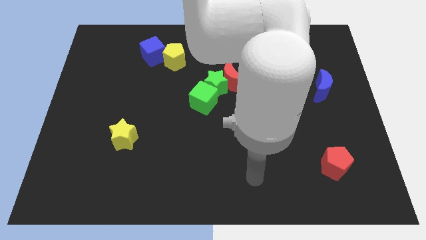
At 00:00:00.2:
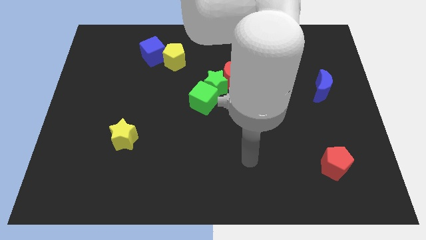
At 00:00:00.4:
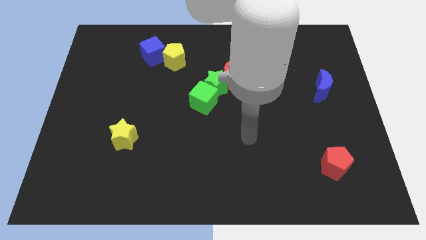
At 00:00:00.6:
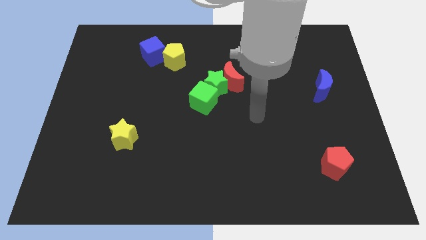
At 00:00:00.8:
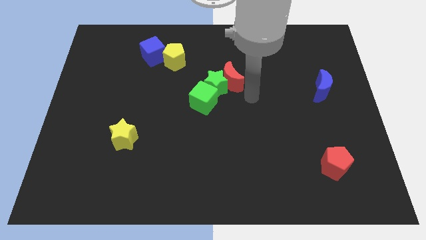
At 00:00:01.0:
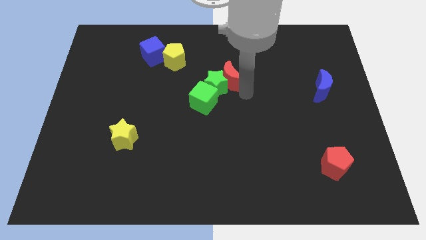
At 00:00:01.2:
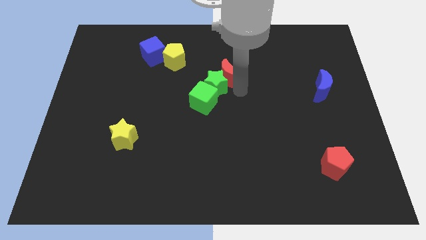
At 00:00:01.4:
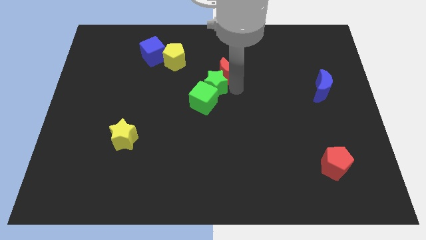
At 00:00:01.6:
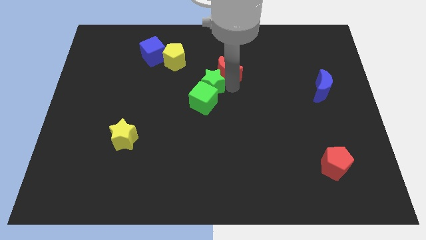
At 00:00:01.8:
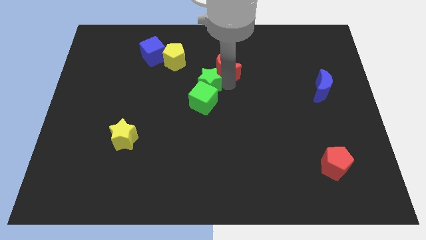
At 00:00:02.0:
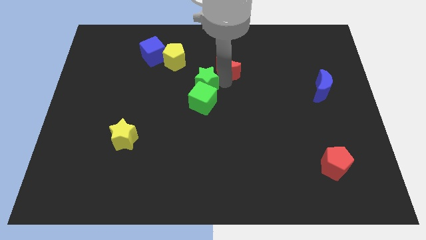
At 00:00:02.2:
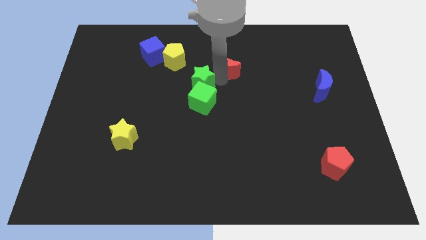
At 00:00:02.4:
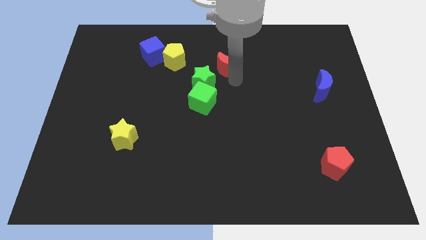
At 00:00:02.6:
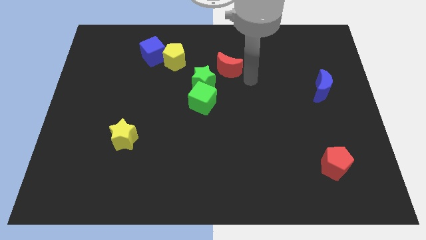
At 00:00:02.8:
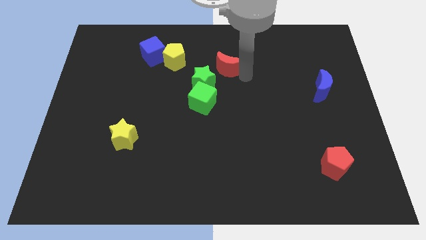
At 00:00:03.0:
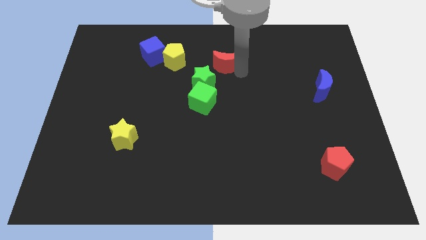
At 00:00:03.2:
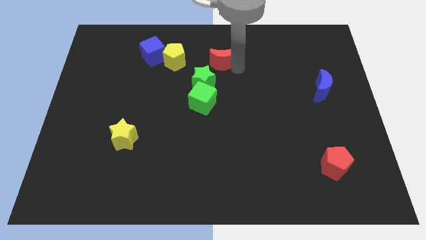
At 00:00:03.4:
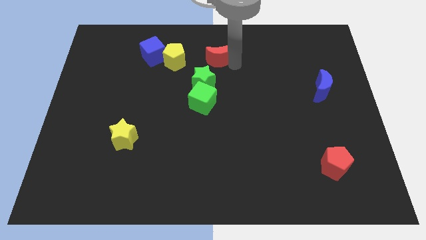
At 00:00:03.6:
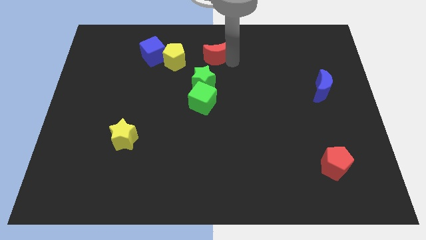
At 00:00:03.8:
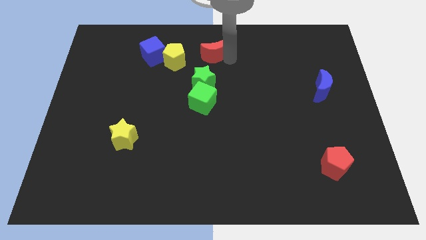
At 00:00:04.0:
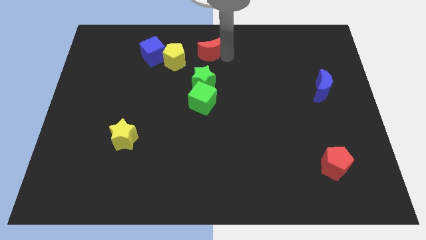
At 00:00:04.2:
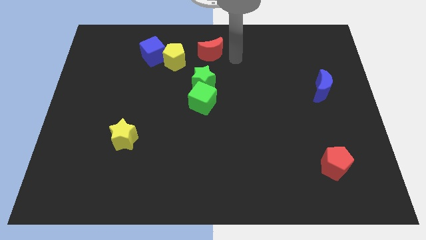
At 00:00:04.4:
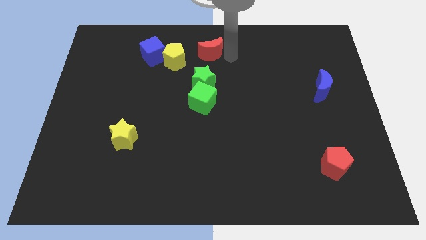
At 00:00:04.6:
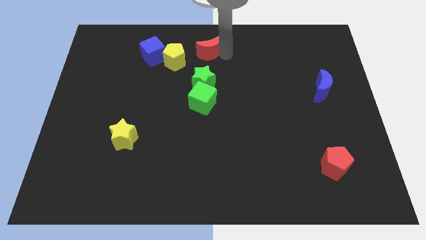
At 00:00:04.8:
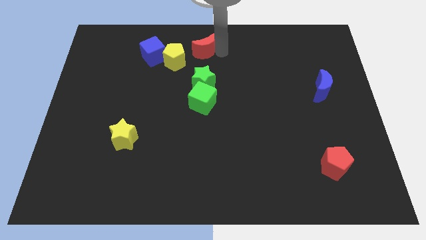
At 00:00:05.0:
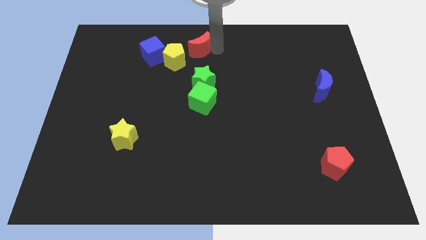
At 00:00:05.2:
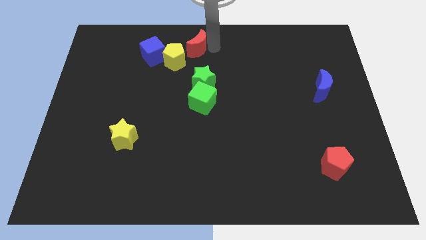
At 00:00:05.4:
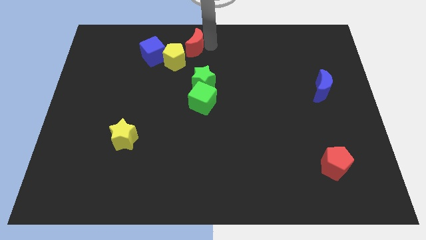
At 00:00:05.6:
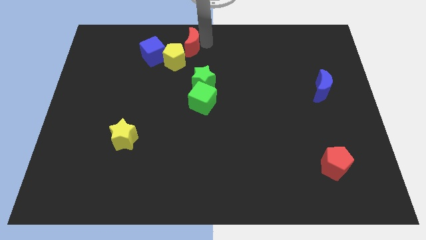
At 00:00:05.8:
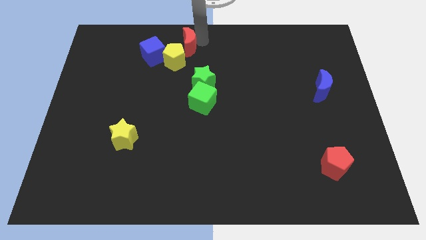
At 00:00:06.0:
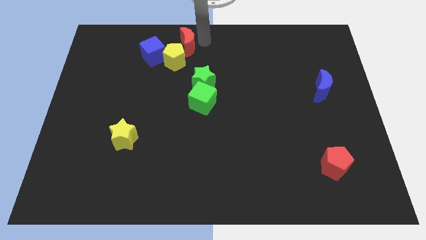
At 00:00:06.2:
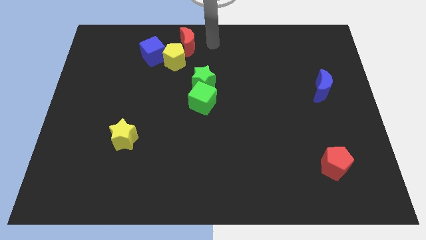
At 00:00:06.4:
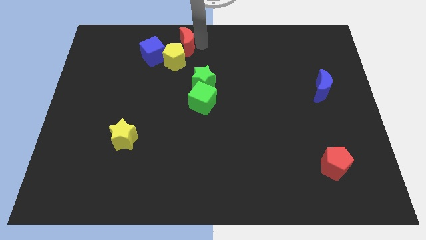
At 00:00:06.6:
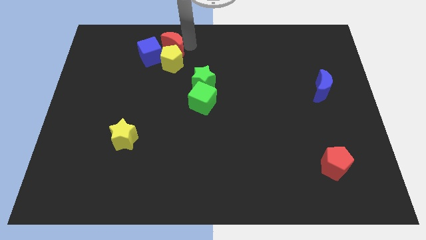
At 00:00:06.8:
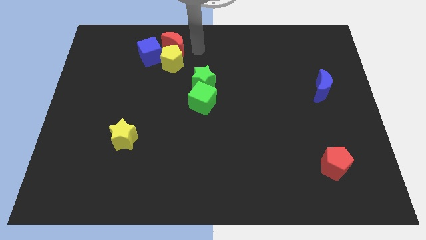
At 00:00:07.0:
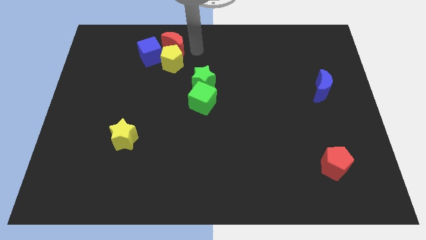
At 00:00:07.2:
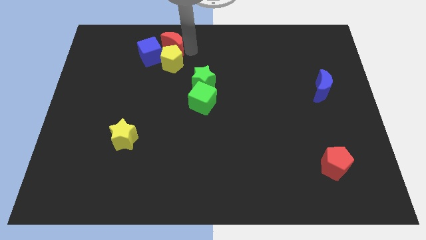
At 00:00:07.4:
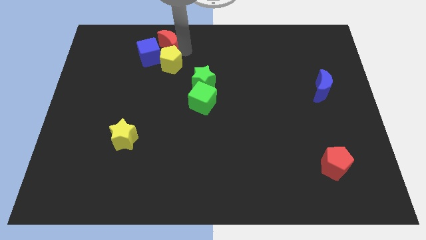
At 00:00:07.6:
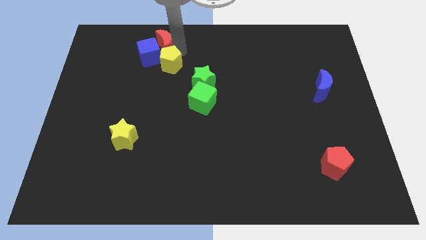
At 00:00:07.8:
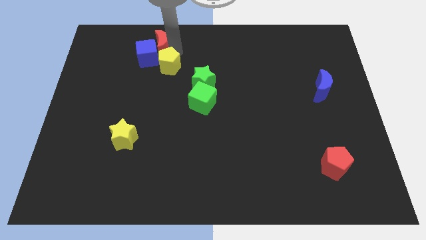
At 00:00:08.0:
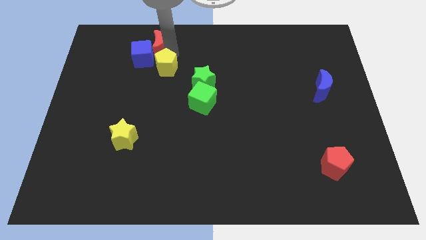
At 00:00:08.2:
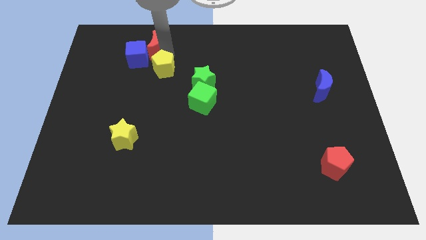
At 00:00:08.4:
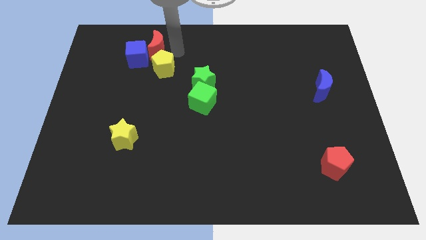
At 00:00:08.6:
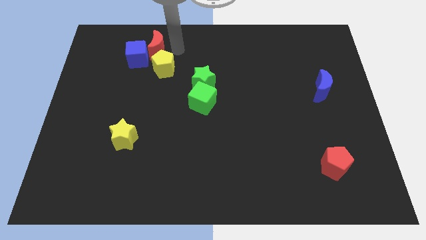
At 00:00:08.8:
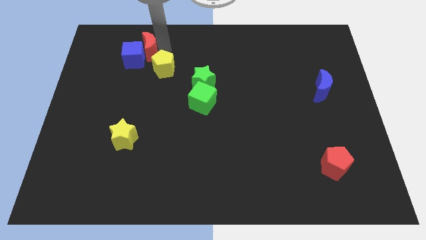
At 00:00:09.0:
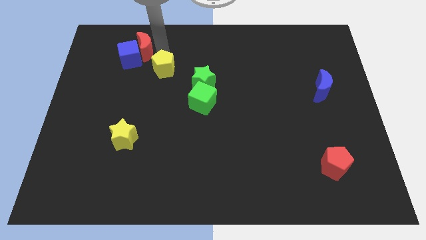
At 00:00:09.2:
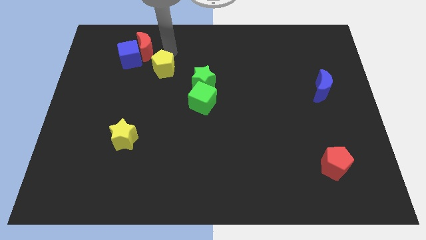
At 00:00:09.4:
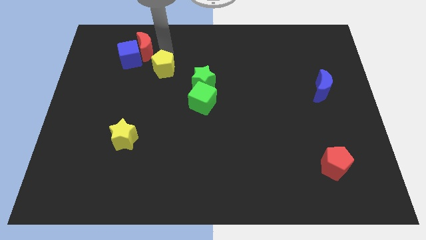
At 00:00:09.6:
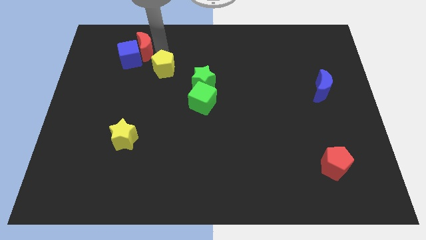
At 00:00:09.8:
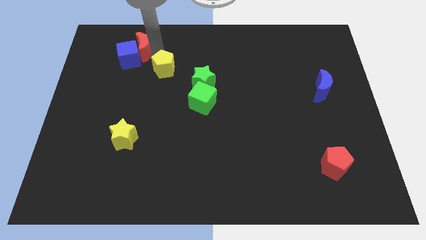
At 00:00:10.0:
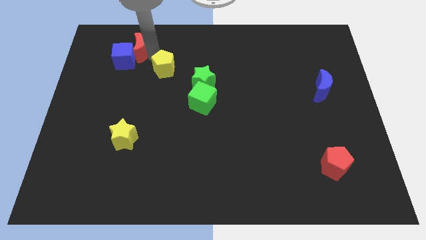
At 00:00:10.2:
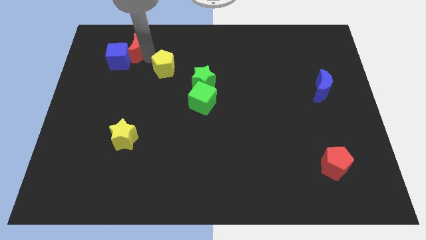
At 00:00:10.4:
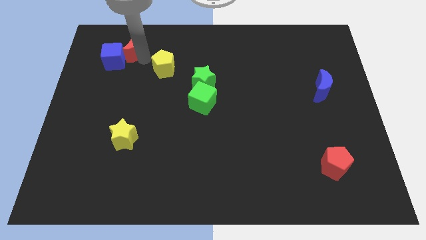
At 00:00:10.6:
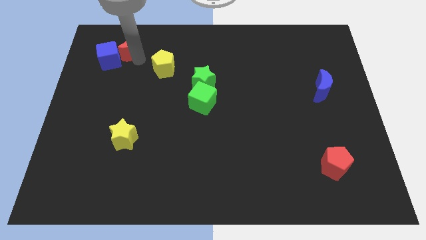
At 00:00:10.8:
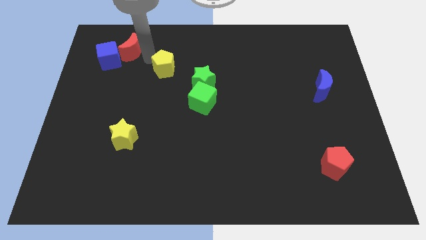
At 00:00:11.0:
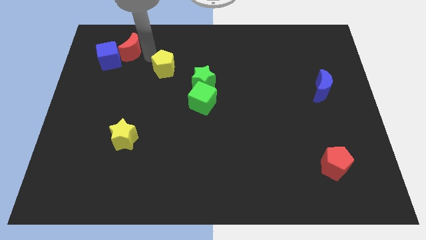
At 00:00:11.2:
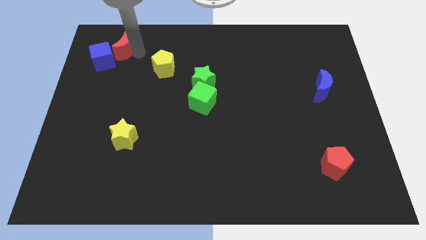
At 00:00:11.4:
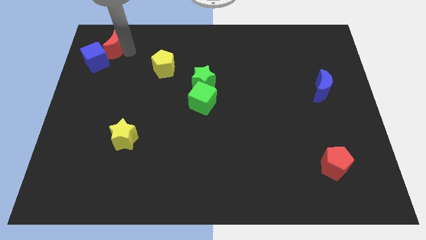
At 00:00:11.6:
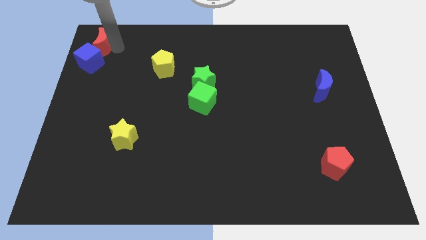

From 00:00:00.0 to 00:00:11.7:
push the red moon to the top left corner
